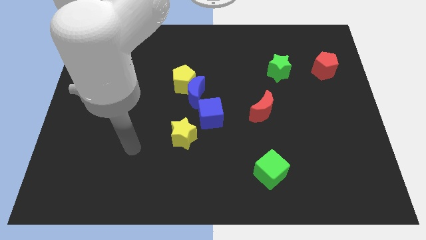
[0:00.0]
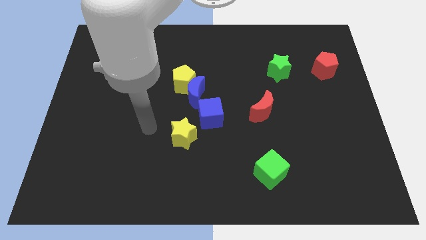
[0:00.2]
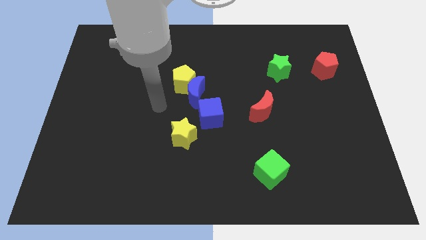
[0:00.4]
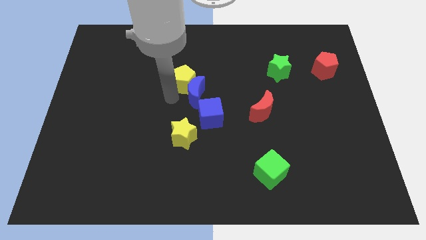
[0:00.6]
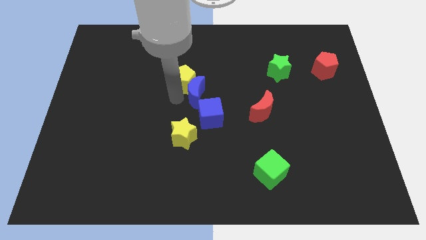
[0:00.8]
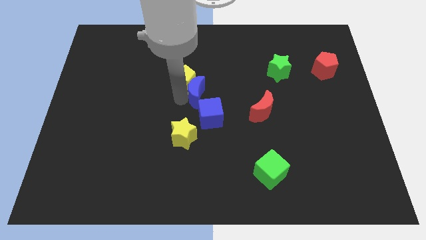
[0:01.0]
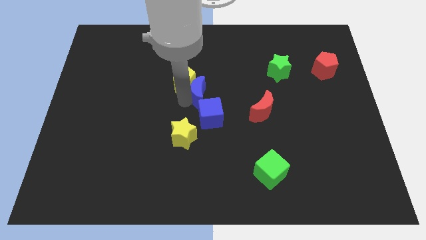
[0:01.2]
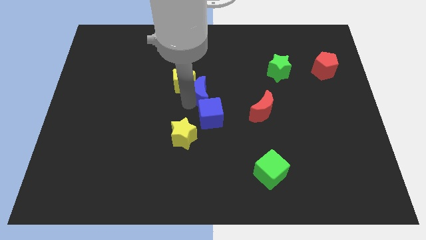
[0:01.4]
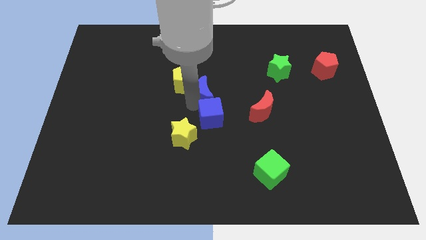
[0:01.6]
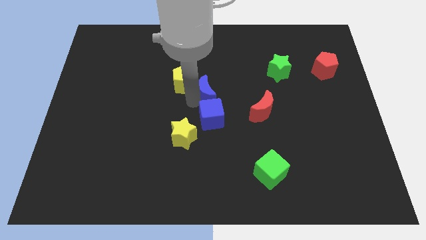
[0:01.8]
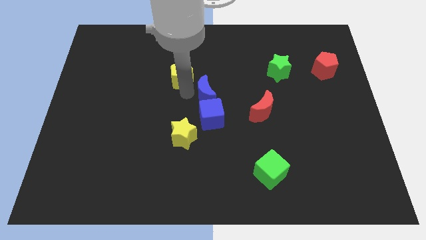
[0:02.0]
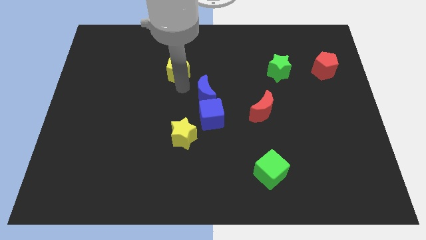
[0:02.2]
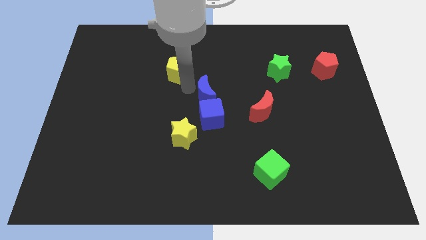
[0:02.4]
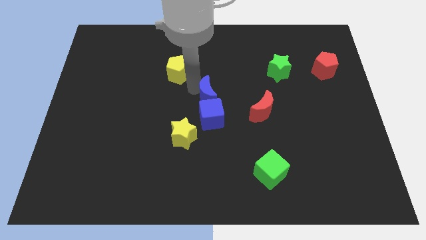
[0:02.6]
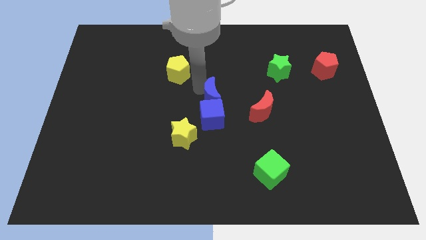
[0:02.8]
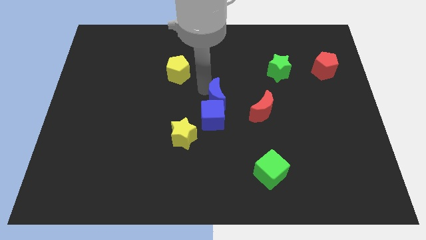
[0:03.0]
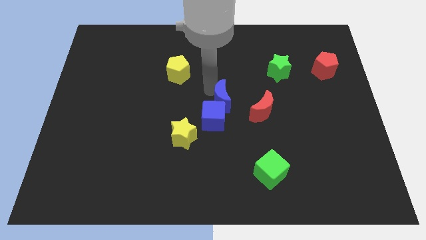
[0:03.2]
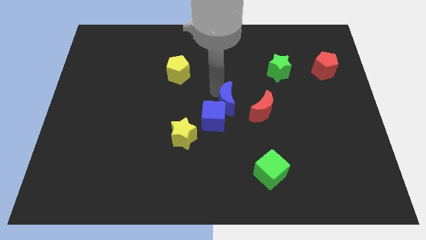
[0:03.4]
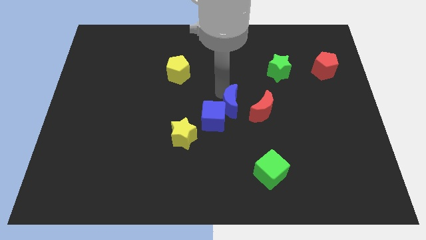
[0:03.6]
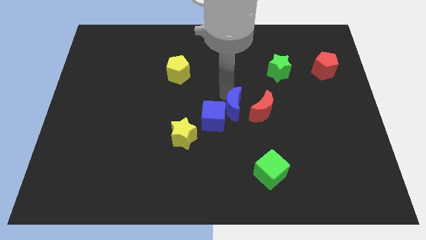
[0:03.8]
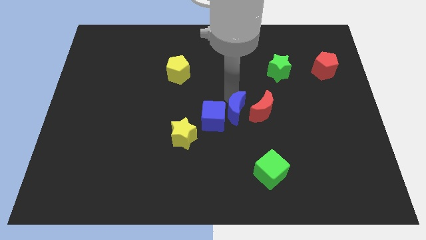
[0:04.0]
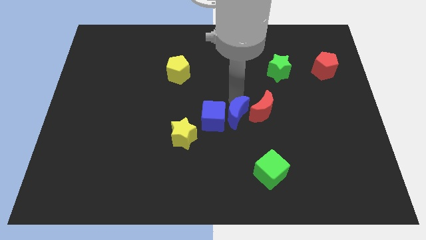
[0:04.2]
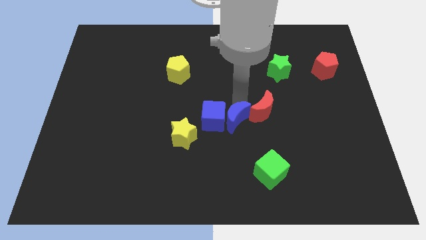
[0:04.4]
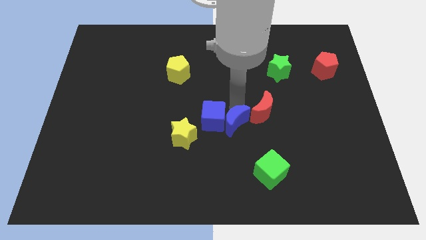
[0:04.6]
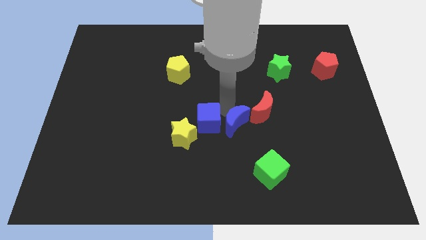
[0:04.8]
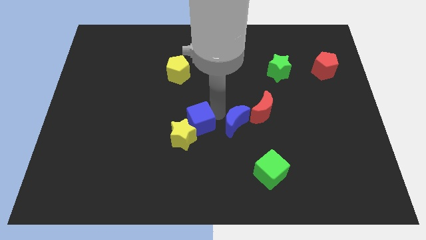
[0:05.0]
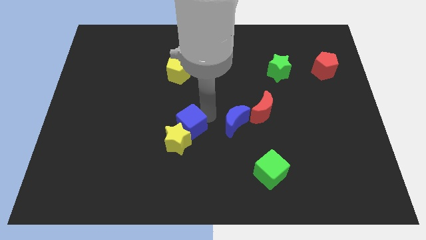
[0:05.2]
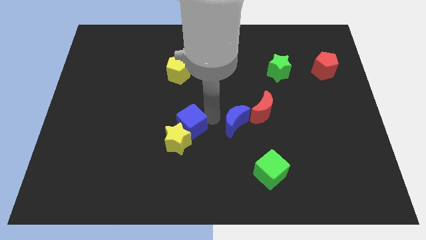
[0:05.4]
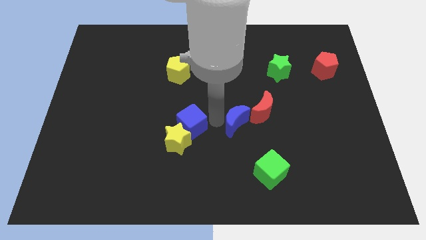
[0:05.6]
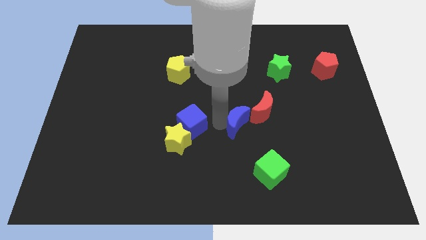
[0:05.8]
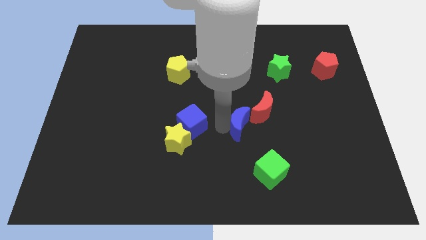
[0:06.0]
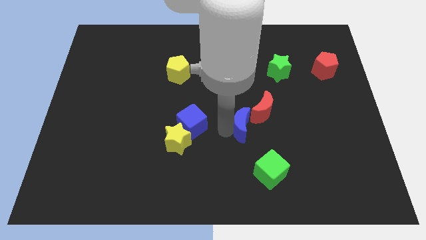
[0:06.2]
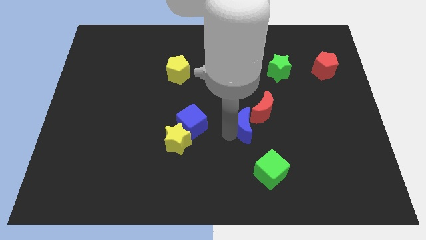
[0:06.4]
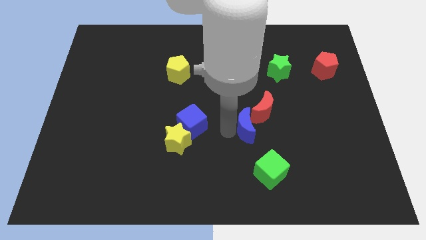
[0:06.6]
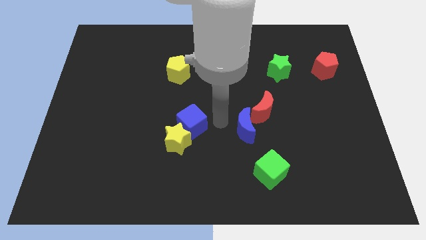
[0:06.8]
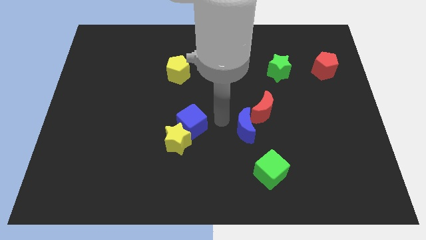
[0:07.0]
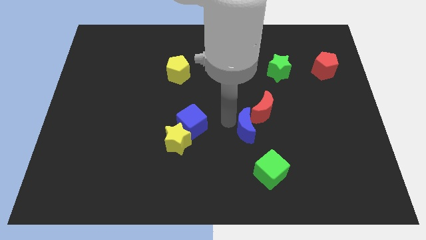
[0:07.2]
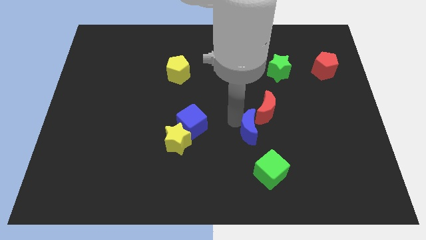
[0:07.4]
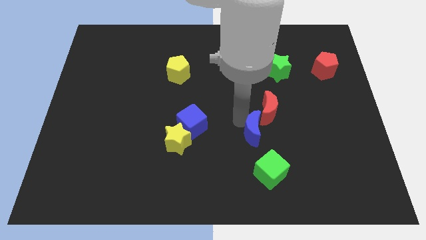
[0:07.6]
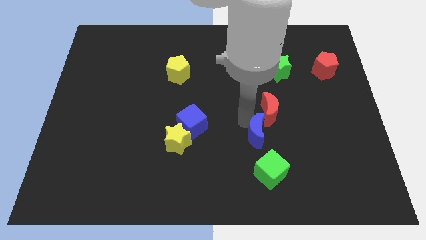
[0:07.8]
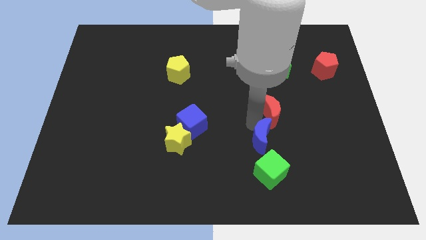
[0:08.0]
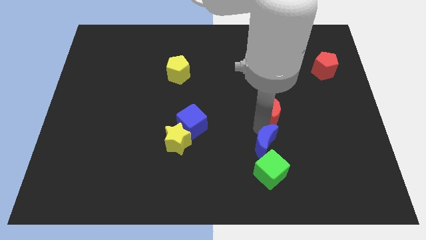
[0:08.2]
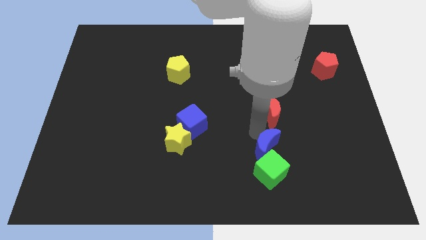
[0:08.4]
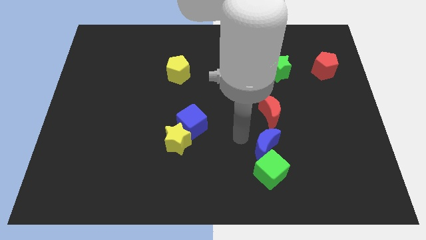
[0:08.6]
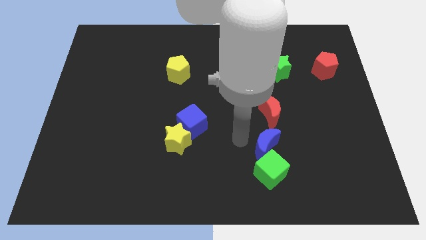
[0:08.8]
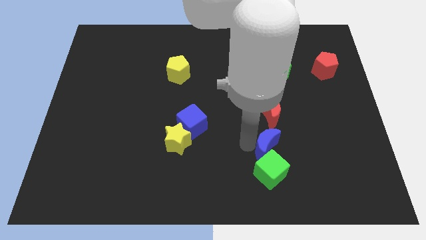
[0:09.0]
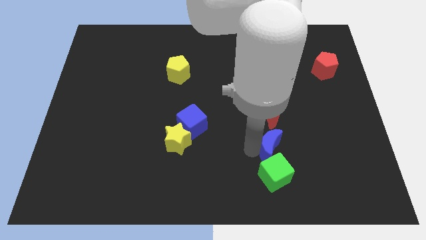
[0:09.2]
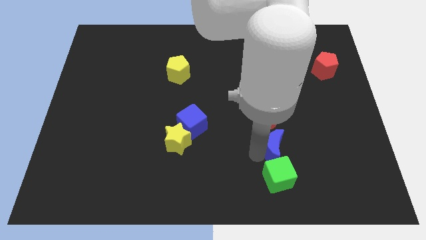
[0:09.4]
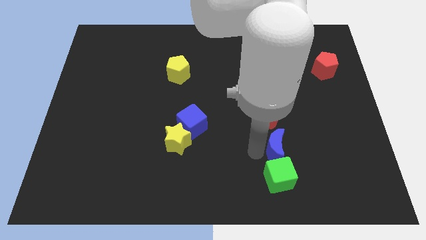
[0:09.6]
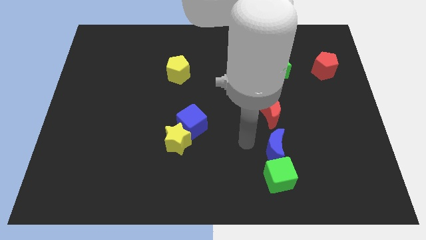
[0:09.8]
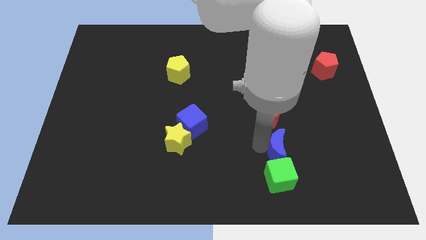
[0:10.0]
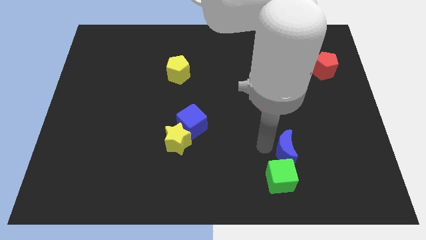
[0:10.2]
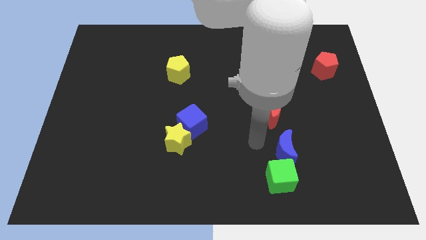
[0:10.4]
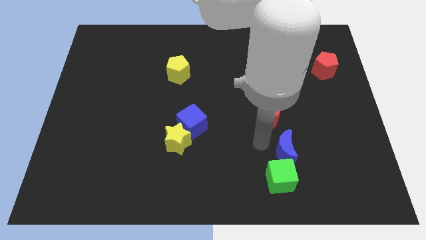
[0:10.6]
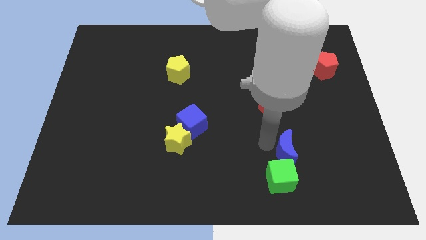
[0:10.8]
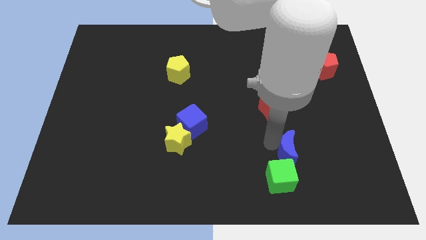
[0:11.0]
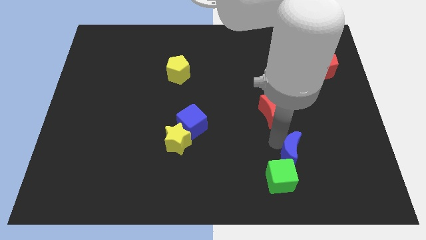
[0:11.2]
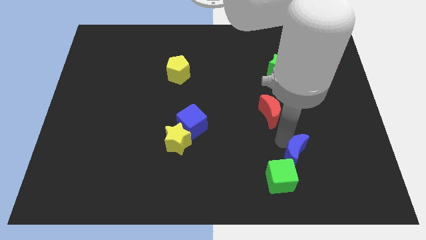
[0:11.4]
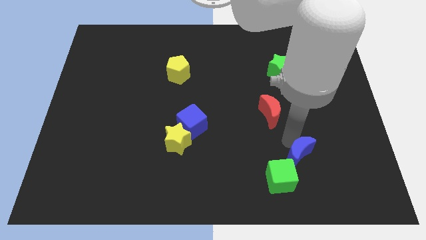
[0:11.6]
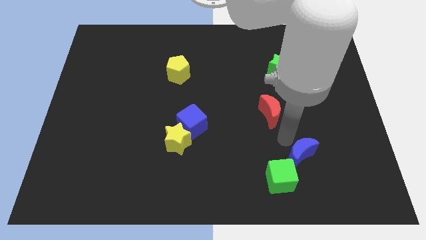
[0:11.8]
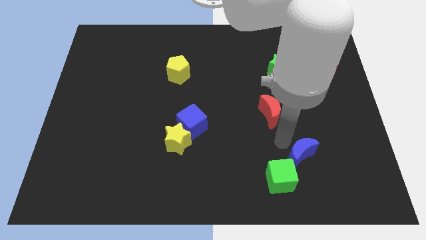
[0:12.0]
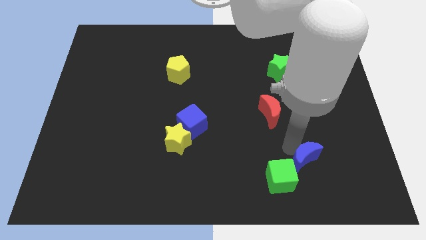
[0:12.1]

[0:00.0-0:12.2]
put the blue moon right of the green cube
